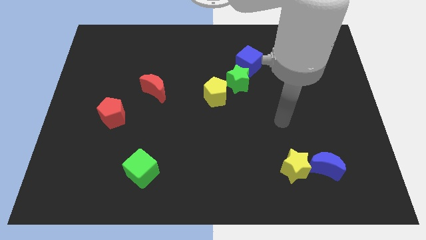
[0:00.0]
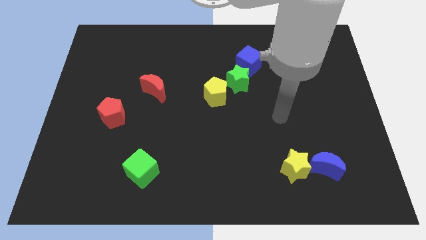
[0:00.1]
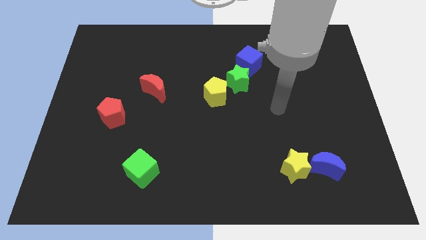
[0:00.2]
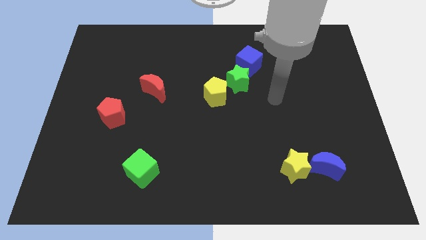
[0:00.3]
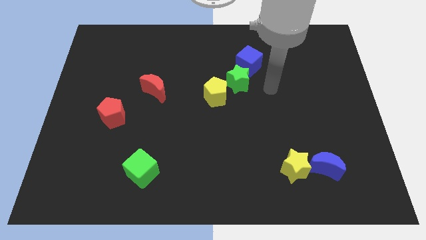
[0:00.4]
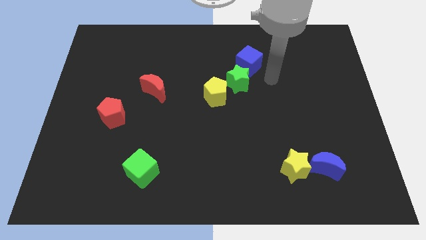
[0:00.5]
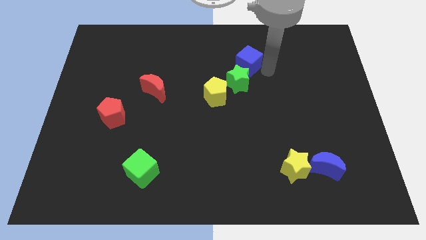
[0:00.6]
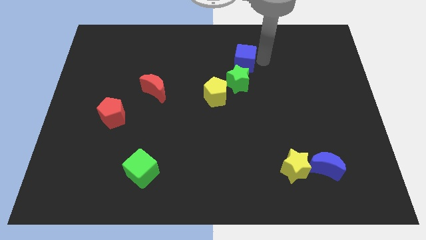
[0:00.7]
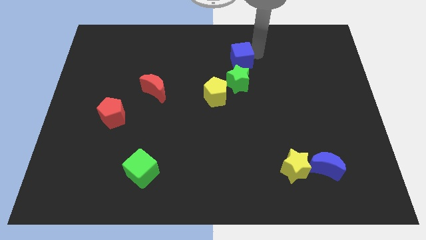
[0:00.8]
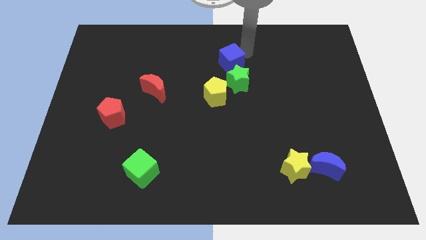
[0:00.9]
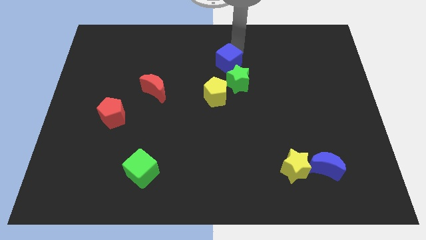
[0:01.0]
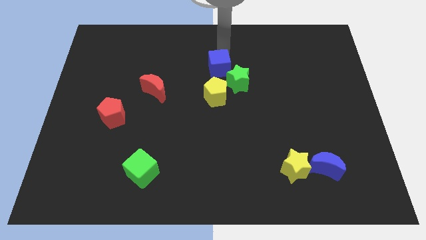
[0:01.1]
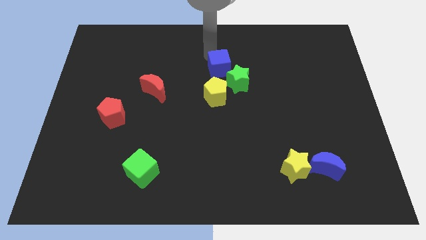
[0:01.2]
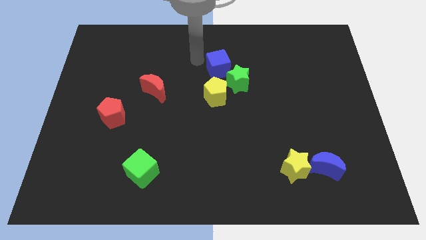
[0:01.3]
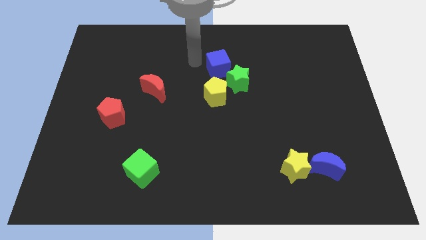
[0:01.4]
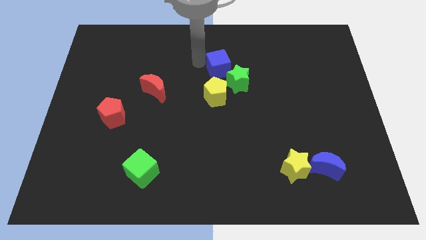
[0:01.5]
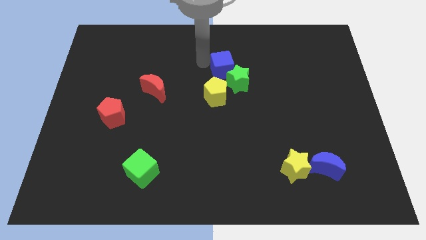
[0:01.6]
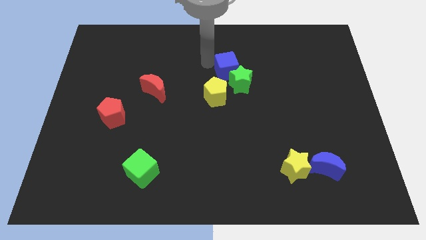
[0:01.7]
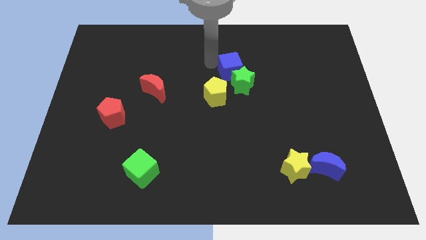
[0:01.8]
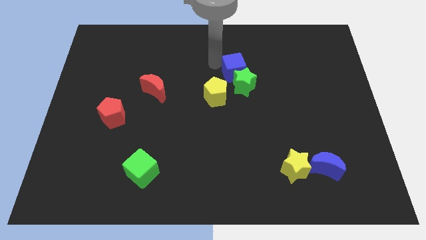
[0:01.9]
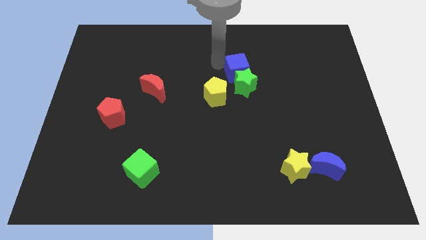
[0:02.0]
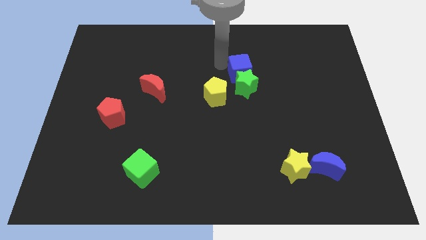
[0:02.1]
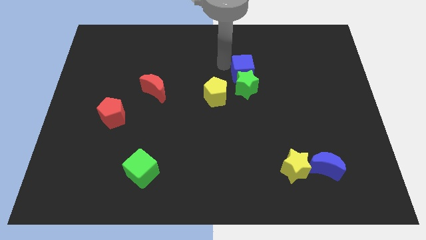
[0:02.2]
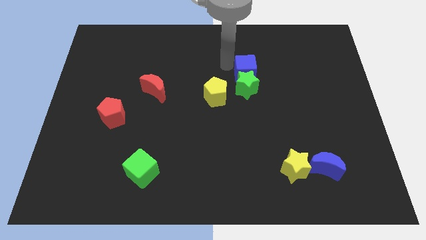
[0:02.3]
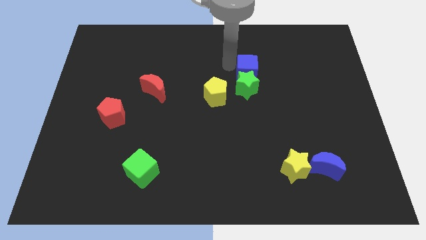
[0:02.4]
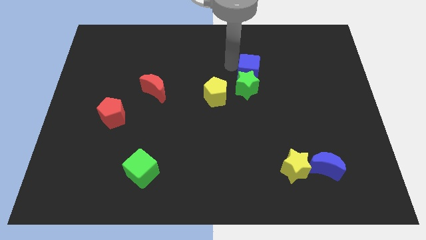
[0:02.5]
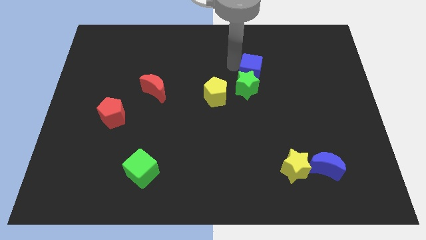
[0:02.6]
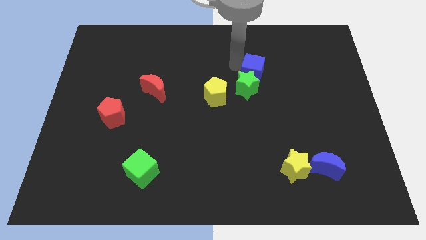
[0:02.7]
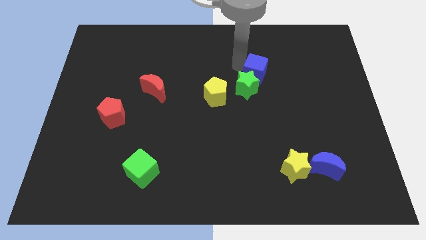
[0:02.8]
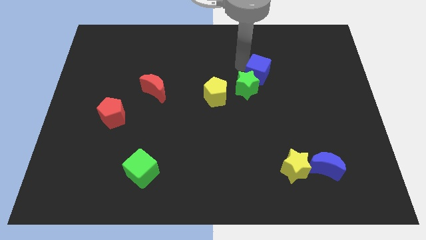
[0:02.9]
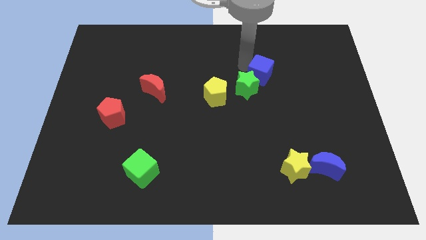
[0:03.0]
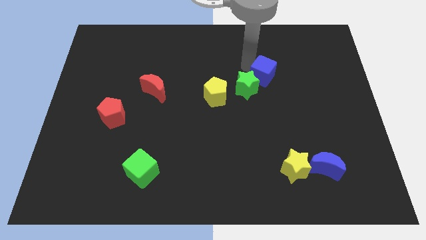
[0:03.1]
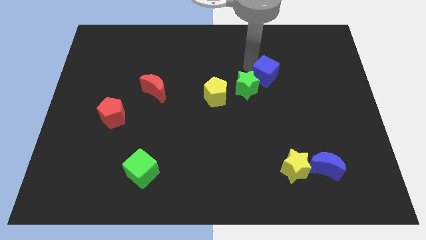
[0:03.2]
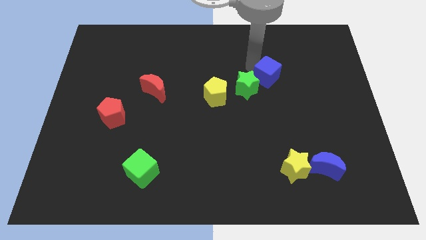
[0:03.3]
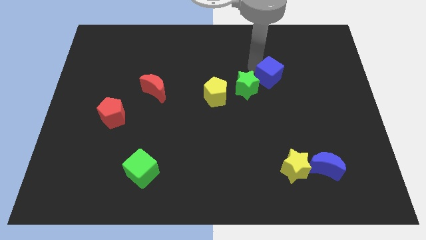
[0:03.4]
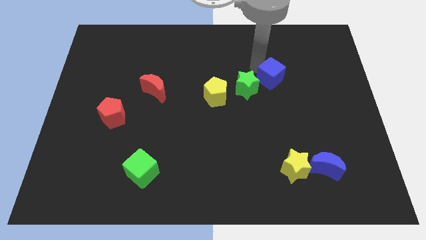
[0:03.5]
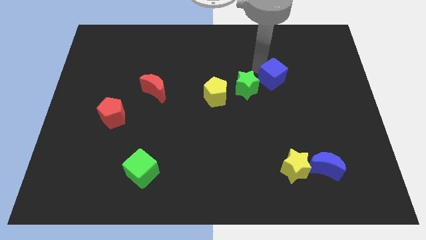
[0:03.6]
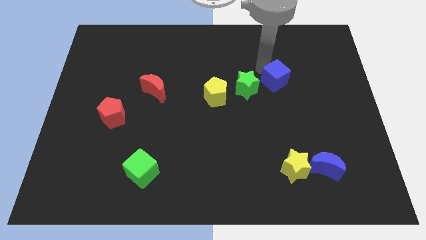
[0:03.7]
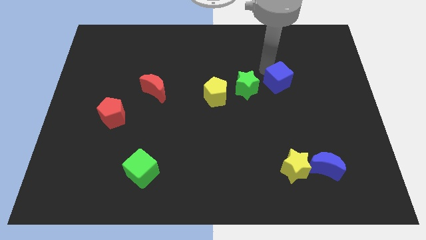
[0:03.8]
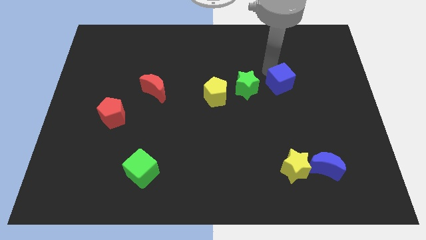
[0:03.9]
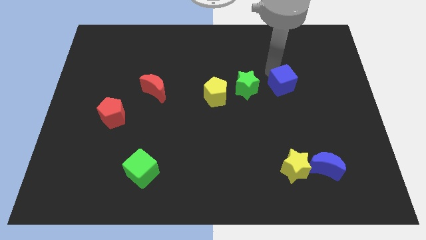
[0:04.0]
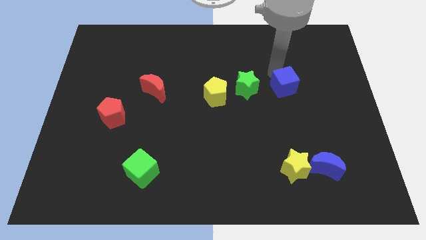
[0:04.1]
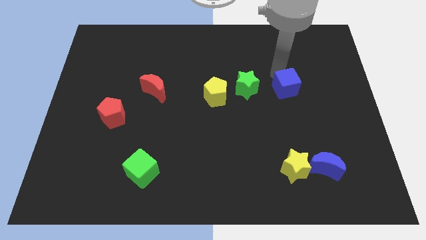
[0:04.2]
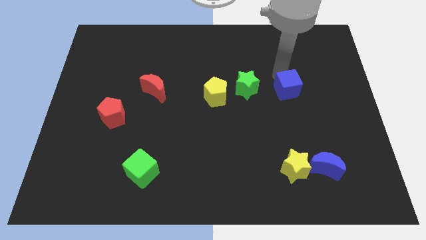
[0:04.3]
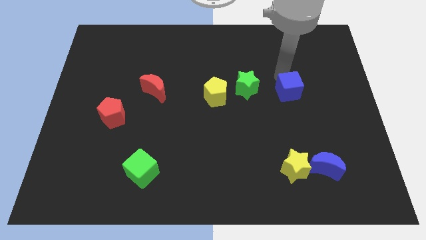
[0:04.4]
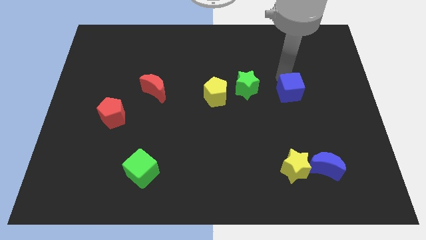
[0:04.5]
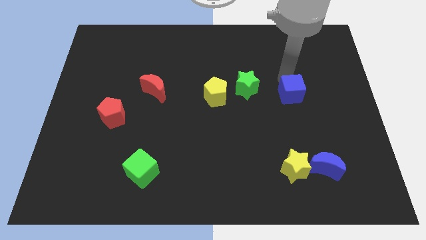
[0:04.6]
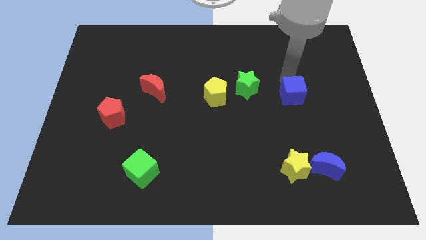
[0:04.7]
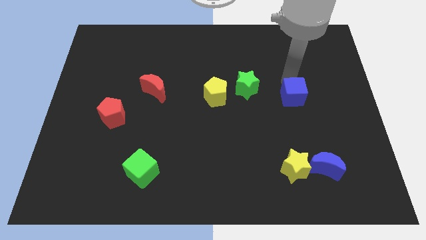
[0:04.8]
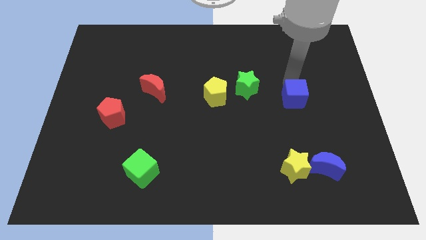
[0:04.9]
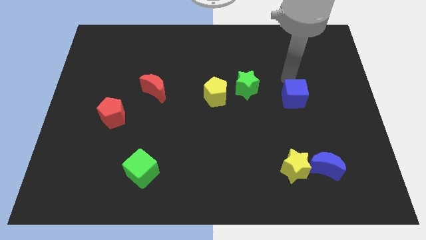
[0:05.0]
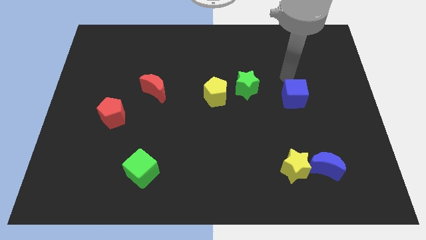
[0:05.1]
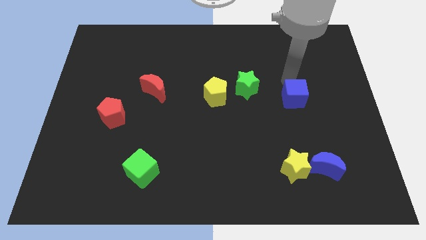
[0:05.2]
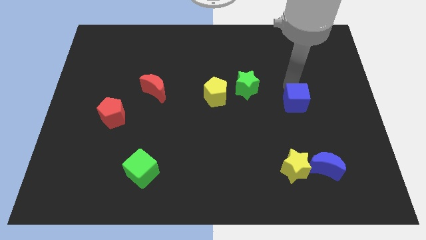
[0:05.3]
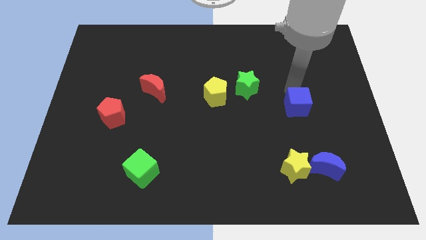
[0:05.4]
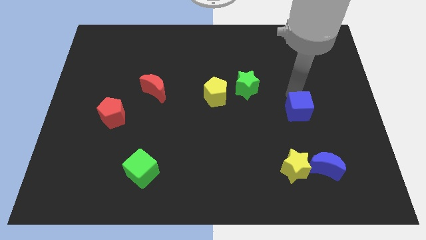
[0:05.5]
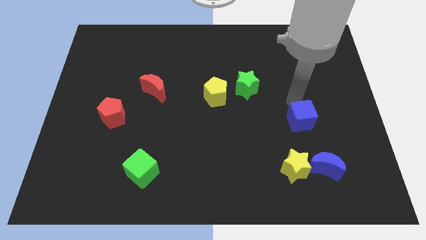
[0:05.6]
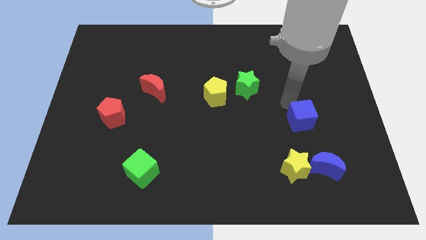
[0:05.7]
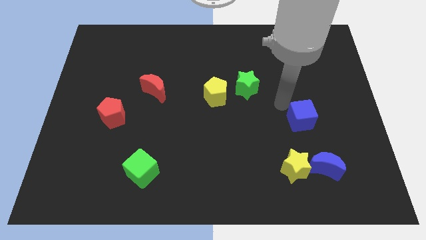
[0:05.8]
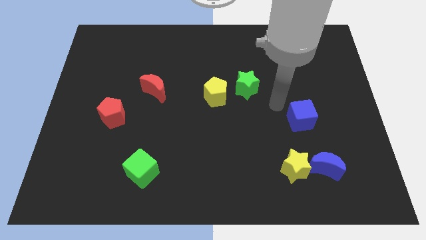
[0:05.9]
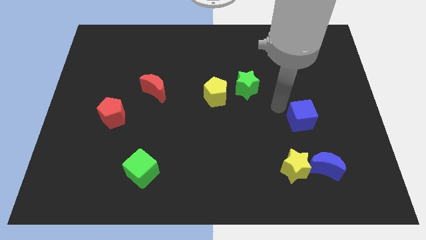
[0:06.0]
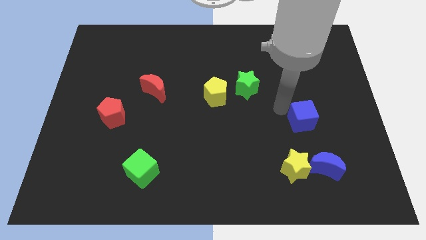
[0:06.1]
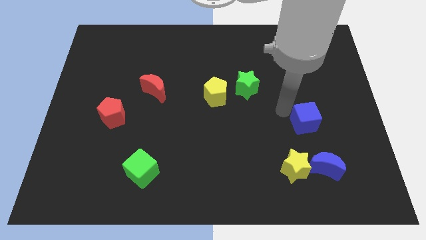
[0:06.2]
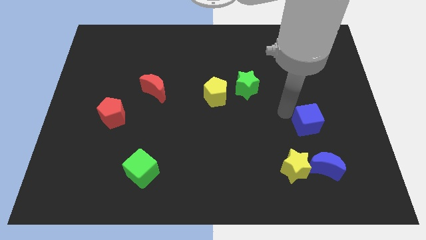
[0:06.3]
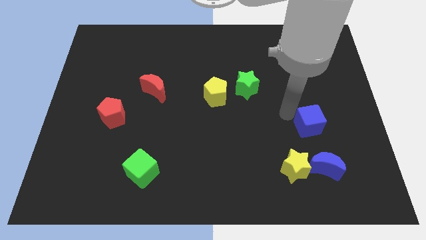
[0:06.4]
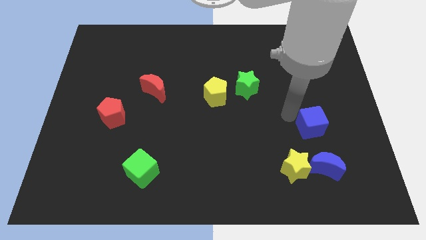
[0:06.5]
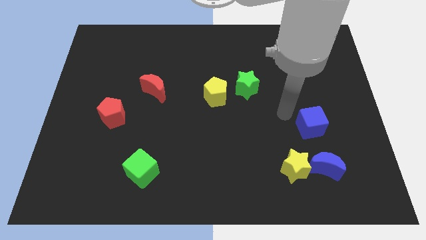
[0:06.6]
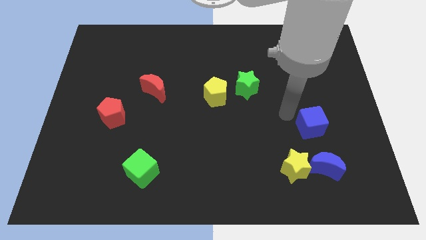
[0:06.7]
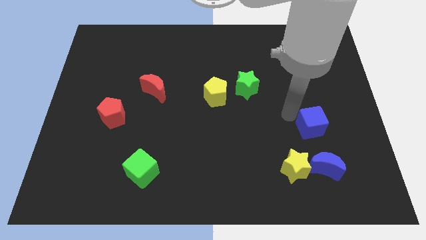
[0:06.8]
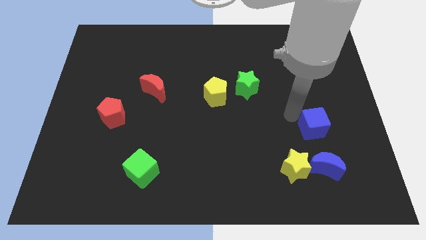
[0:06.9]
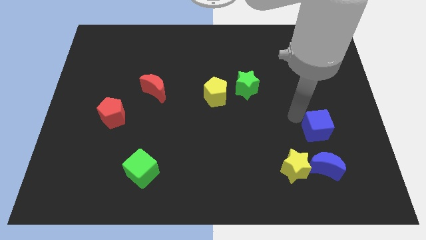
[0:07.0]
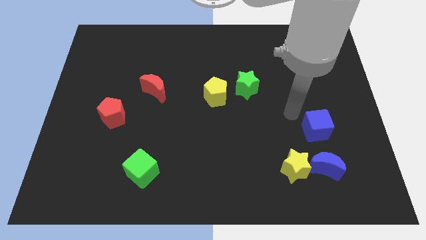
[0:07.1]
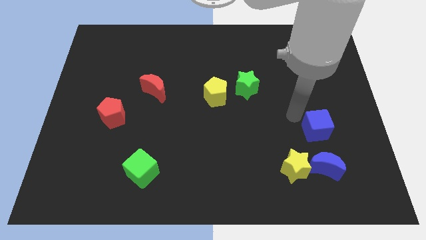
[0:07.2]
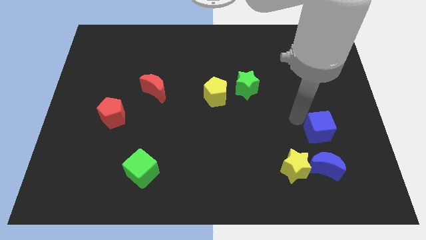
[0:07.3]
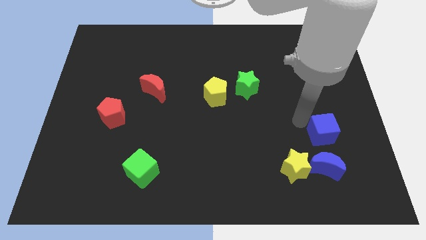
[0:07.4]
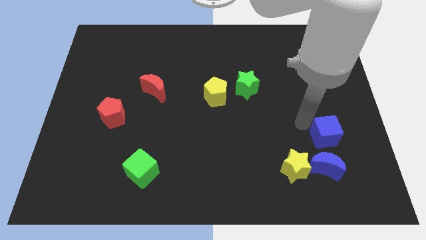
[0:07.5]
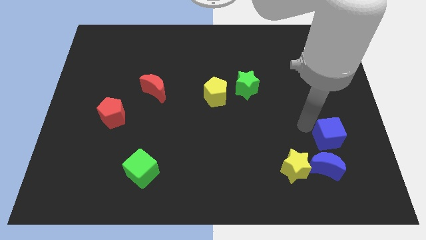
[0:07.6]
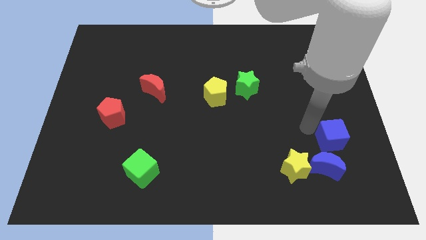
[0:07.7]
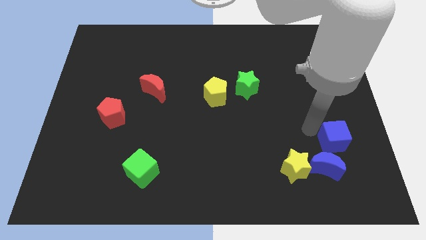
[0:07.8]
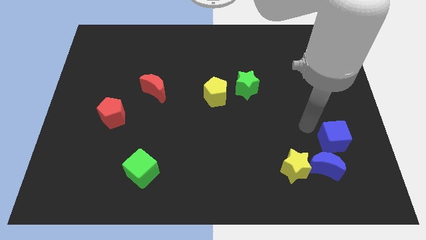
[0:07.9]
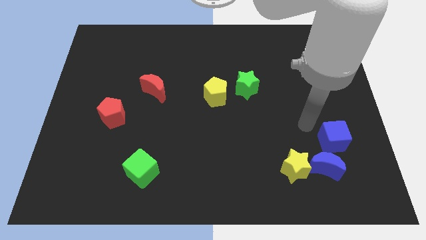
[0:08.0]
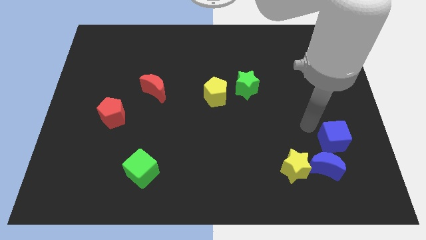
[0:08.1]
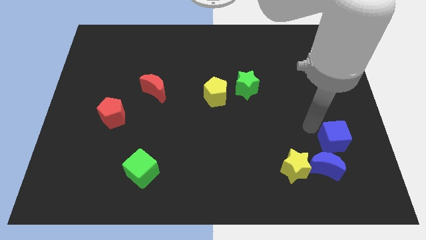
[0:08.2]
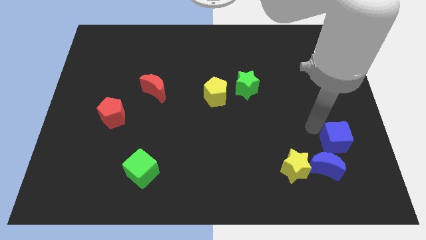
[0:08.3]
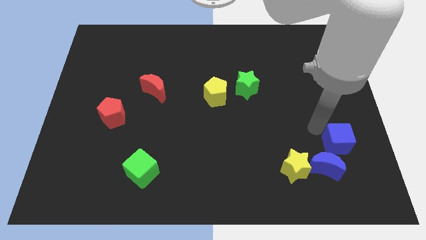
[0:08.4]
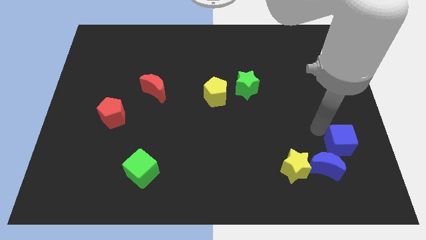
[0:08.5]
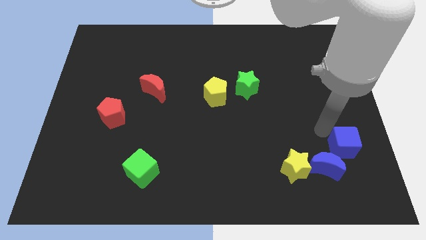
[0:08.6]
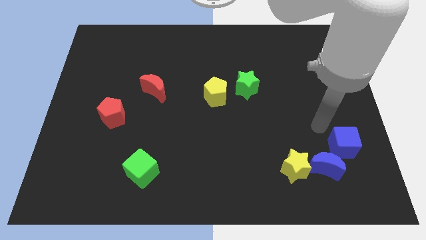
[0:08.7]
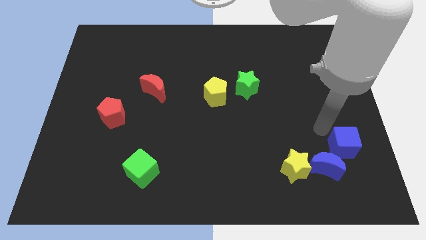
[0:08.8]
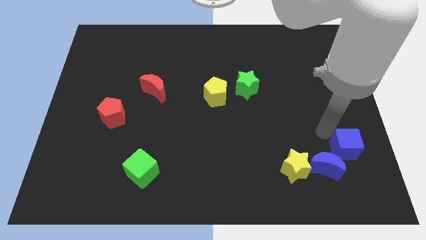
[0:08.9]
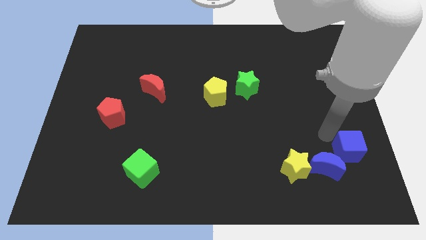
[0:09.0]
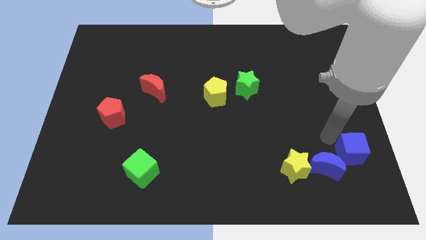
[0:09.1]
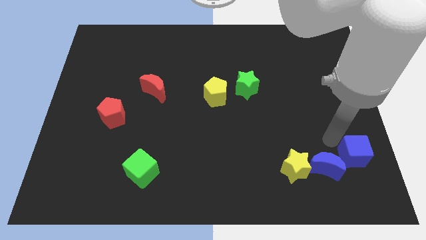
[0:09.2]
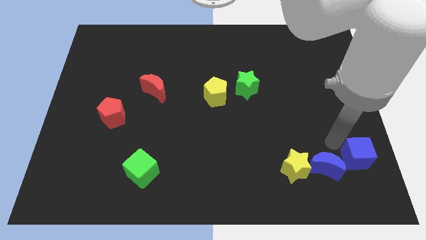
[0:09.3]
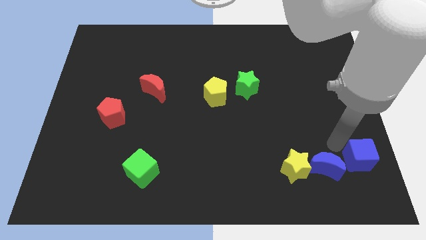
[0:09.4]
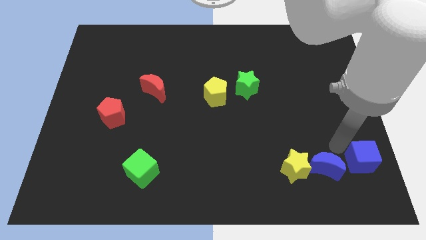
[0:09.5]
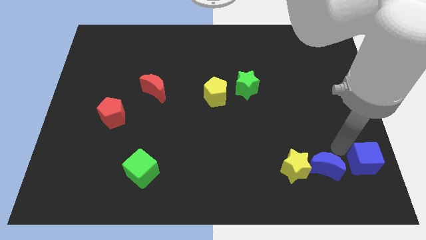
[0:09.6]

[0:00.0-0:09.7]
put the blue cube to the bottom right
